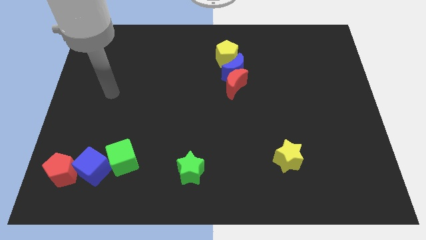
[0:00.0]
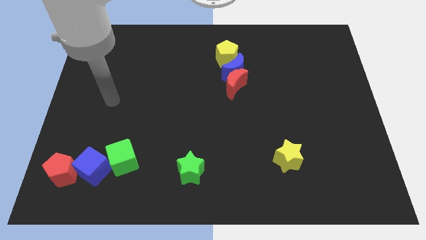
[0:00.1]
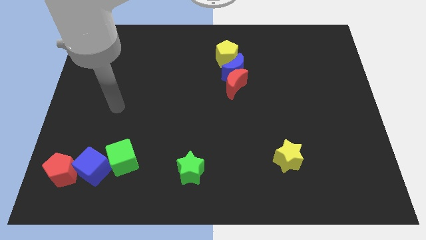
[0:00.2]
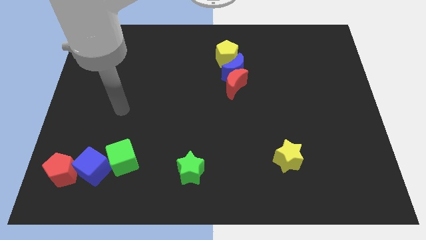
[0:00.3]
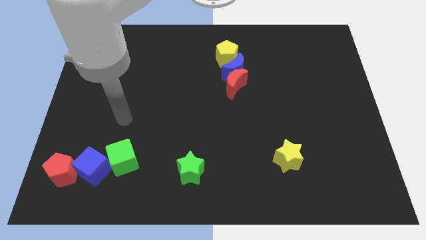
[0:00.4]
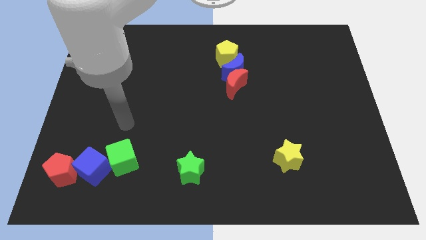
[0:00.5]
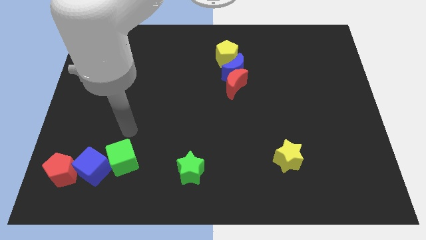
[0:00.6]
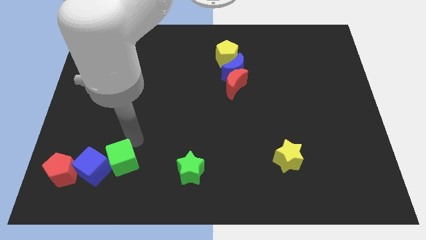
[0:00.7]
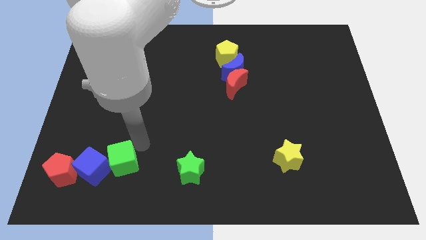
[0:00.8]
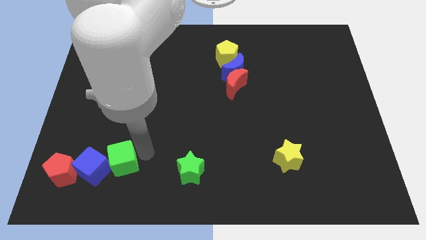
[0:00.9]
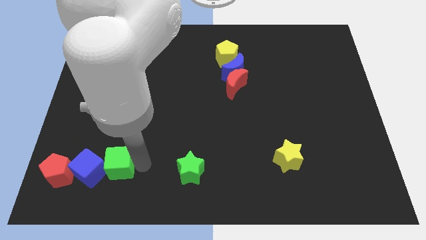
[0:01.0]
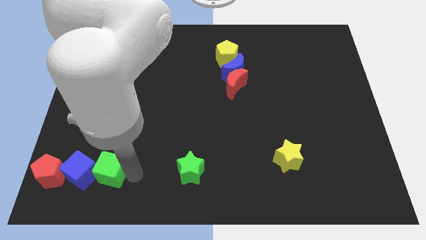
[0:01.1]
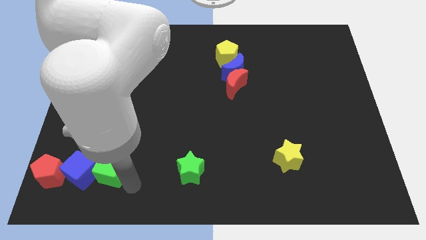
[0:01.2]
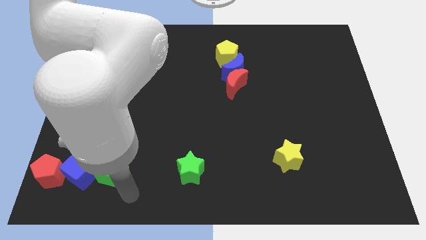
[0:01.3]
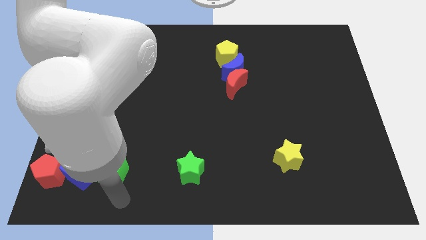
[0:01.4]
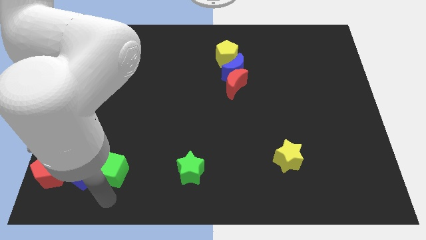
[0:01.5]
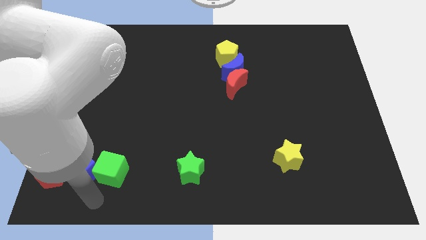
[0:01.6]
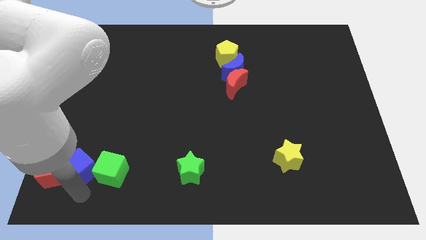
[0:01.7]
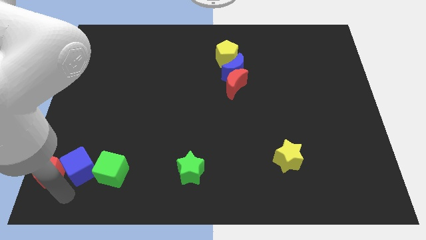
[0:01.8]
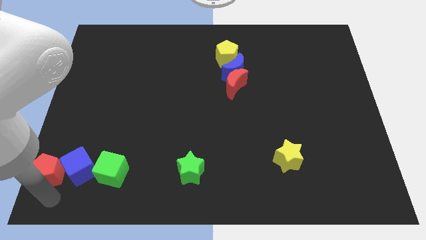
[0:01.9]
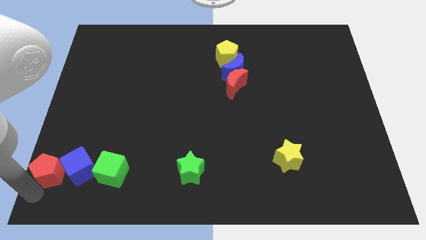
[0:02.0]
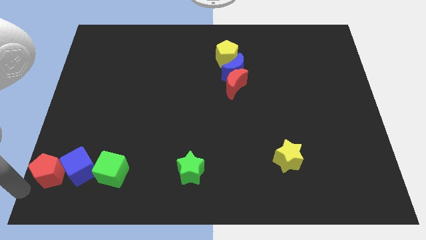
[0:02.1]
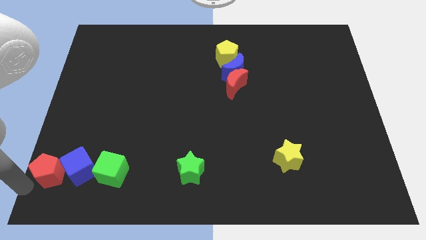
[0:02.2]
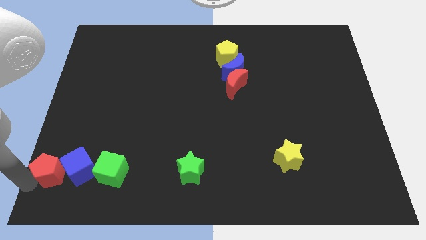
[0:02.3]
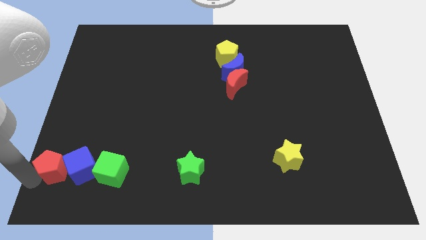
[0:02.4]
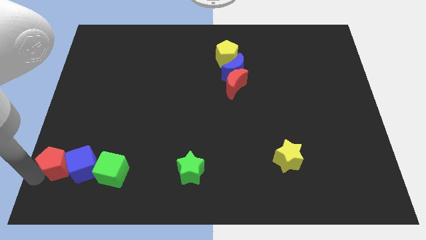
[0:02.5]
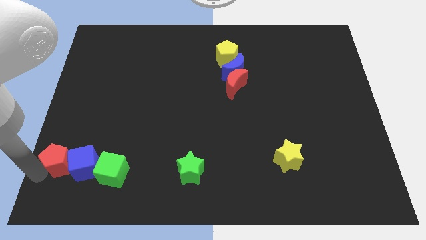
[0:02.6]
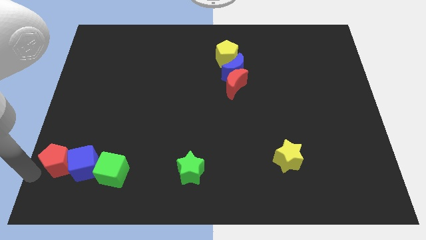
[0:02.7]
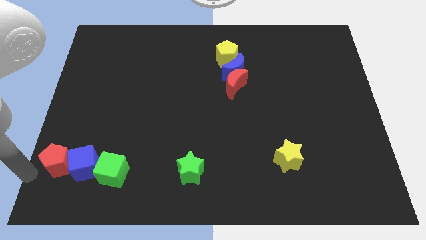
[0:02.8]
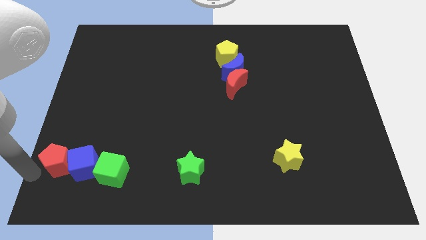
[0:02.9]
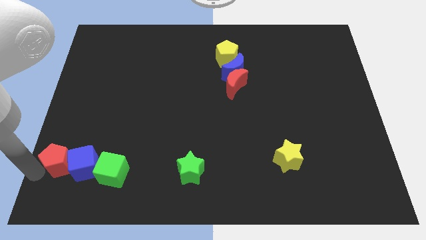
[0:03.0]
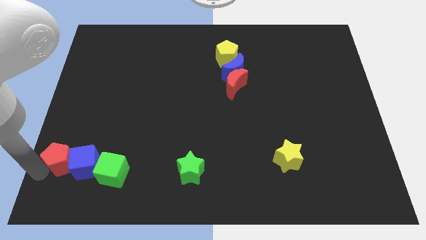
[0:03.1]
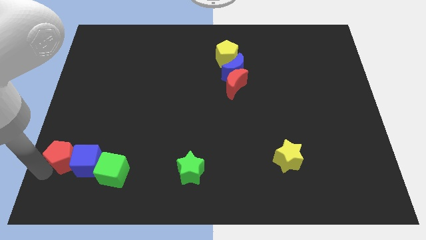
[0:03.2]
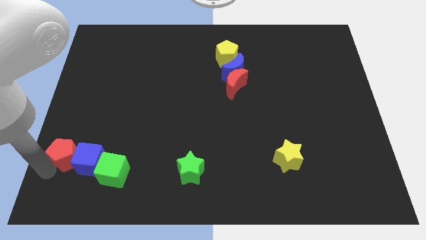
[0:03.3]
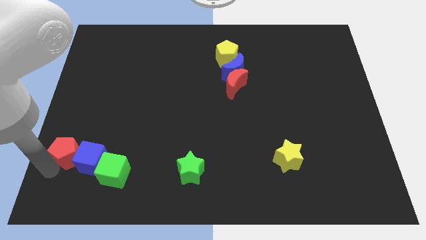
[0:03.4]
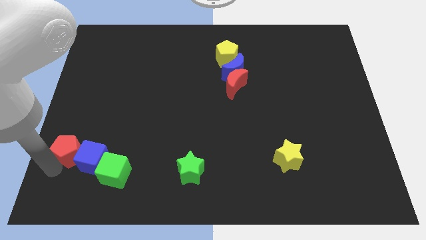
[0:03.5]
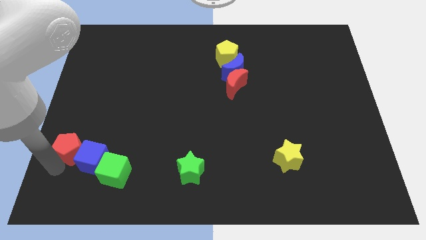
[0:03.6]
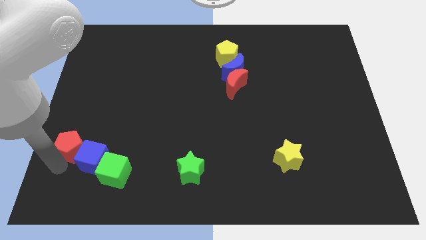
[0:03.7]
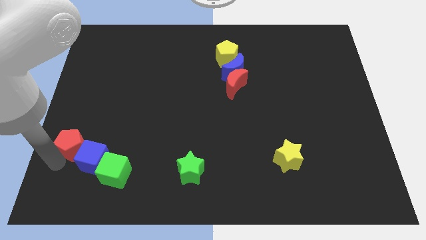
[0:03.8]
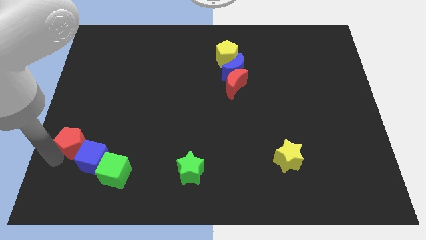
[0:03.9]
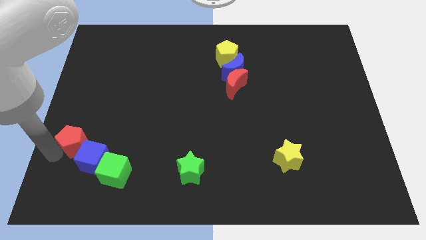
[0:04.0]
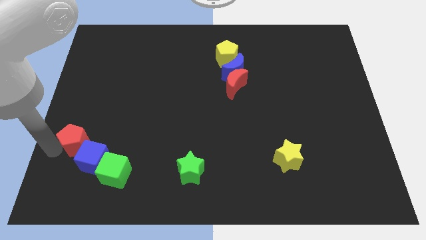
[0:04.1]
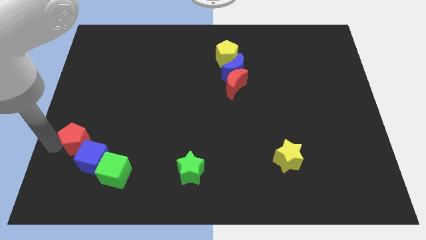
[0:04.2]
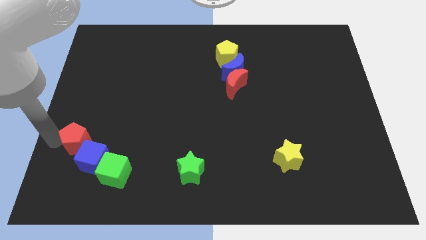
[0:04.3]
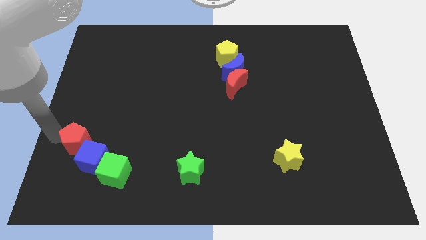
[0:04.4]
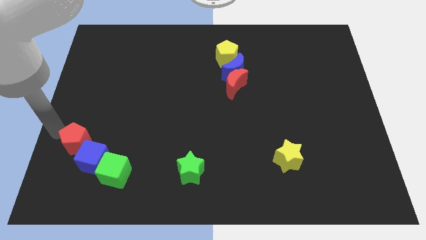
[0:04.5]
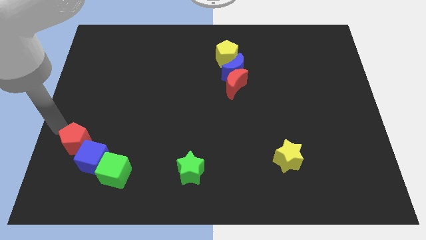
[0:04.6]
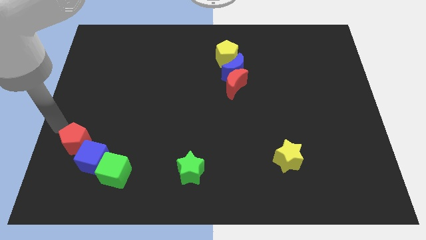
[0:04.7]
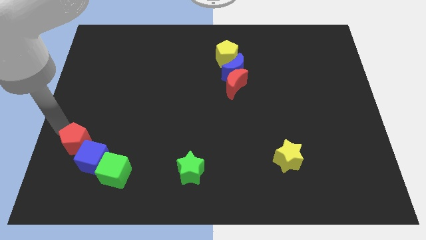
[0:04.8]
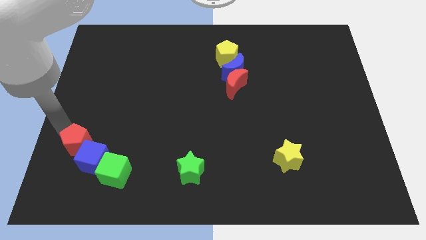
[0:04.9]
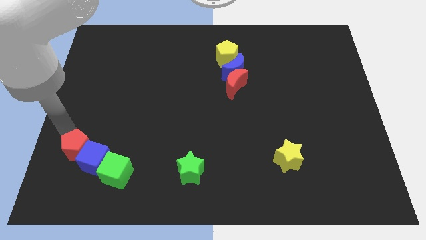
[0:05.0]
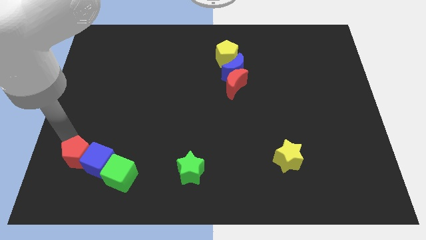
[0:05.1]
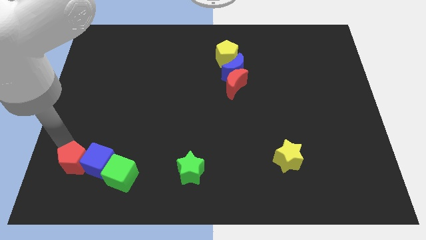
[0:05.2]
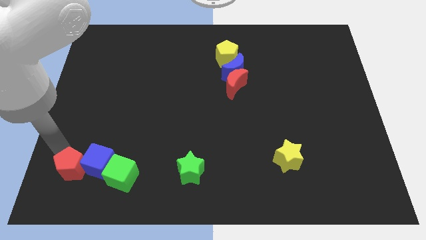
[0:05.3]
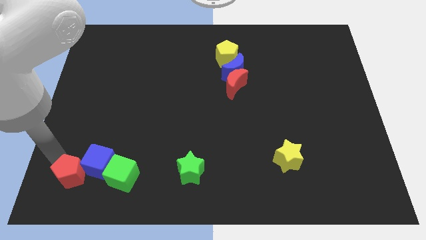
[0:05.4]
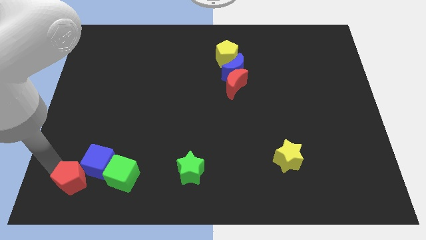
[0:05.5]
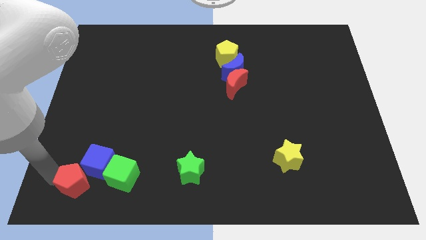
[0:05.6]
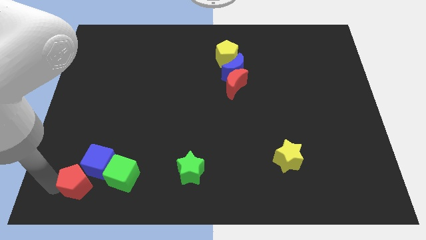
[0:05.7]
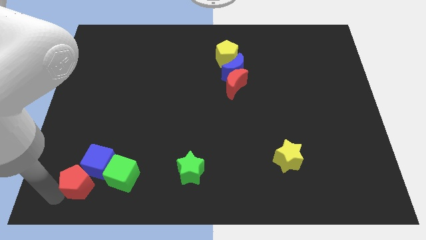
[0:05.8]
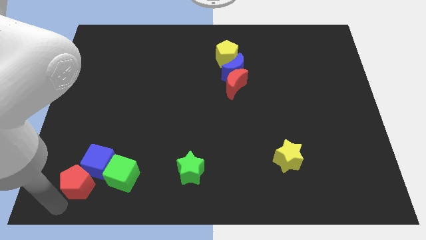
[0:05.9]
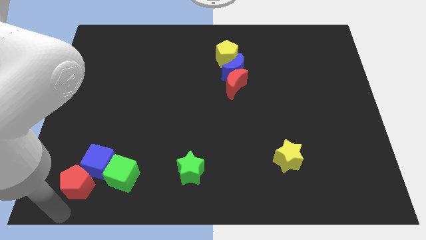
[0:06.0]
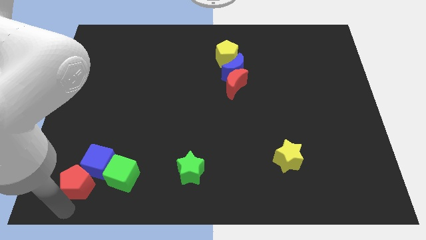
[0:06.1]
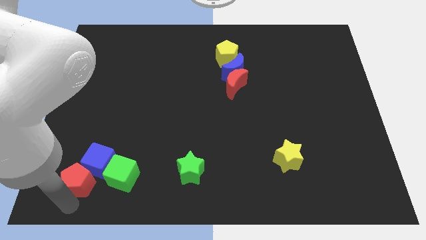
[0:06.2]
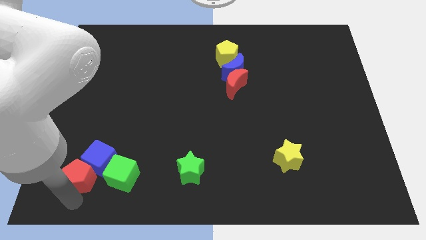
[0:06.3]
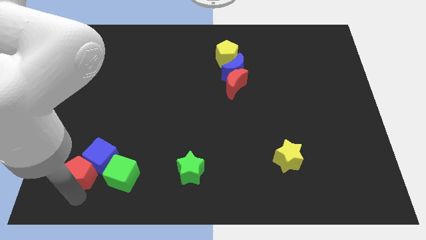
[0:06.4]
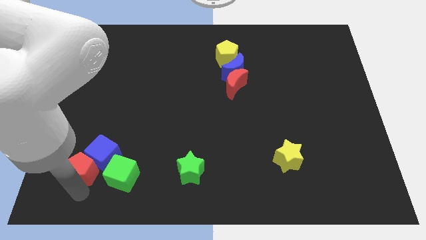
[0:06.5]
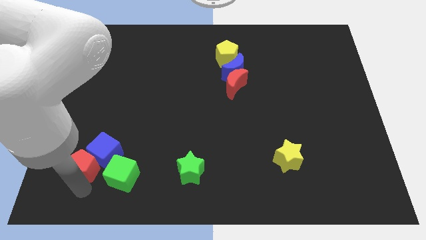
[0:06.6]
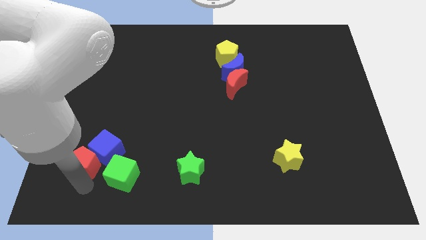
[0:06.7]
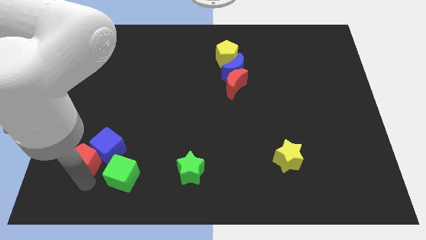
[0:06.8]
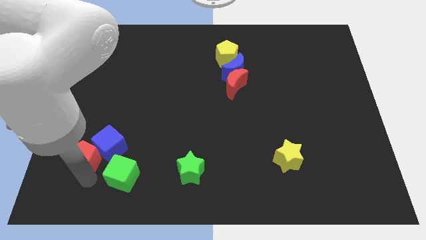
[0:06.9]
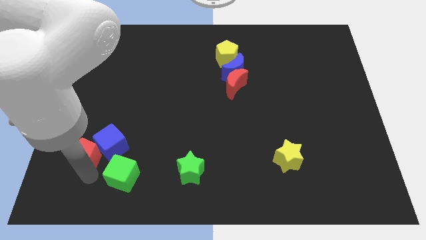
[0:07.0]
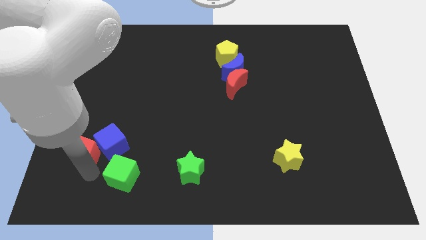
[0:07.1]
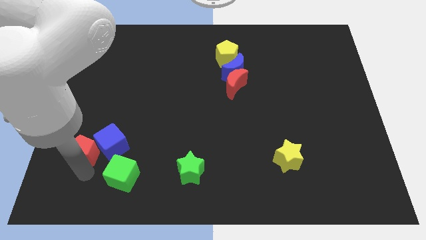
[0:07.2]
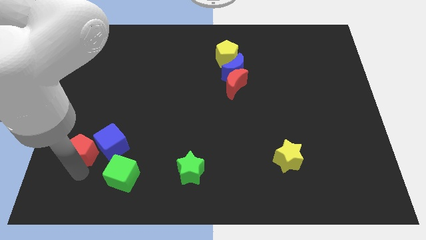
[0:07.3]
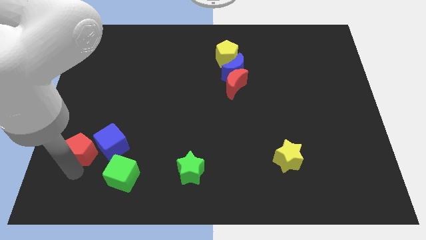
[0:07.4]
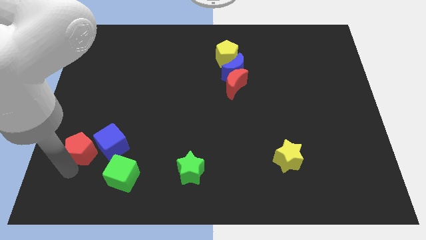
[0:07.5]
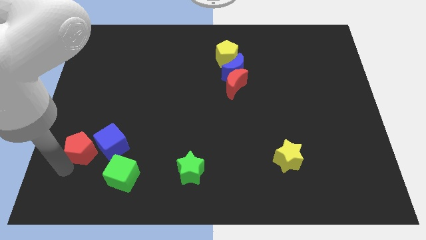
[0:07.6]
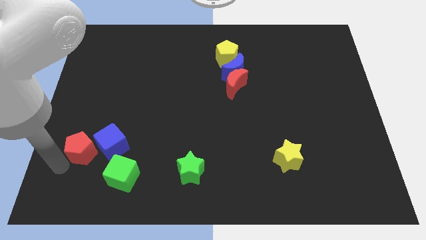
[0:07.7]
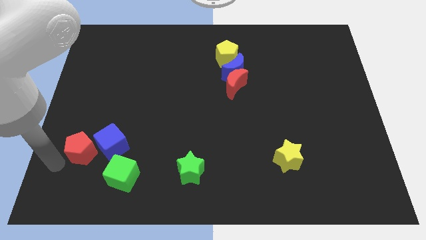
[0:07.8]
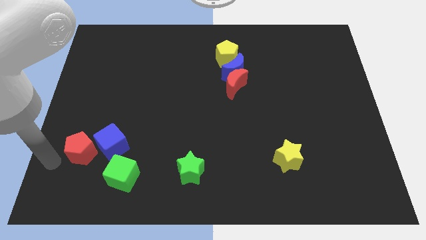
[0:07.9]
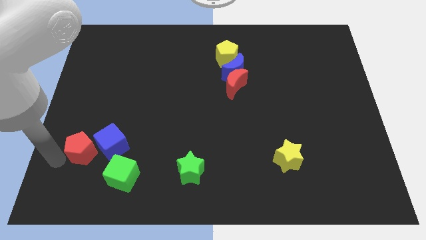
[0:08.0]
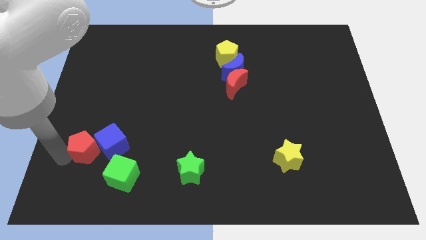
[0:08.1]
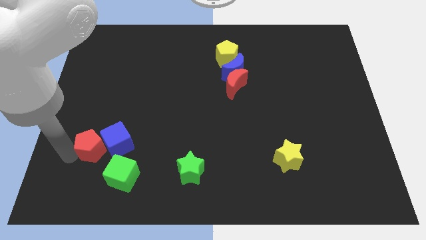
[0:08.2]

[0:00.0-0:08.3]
move the red pentagon upwards and then right somewhat
